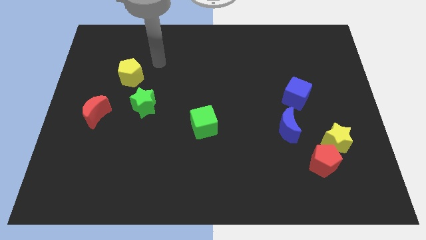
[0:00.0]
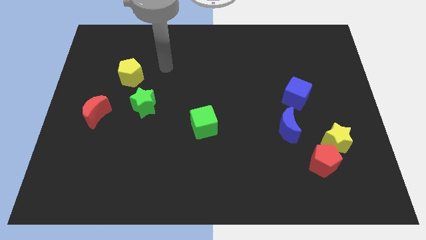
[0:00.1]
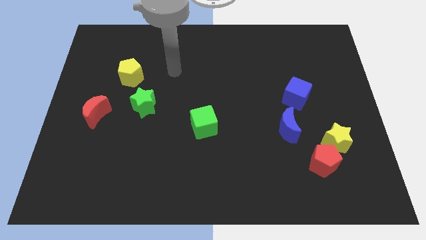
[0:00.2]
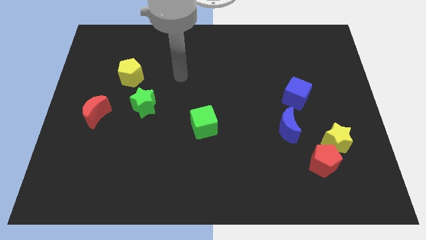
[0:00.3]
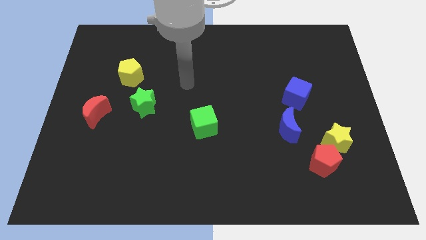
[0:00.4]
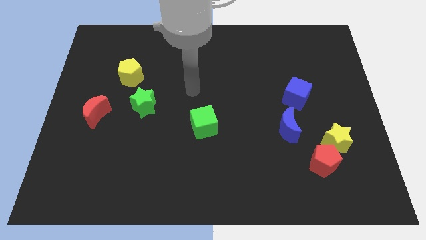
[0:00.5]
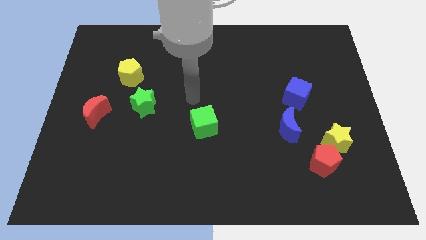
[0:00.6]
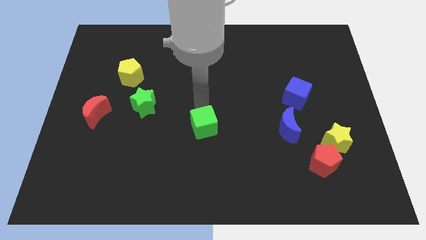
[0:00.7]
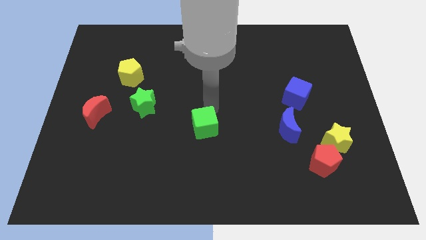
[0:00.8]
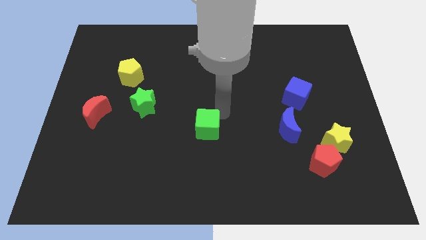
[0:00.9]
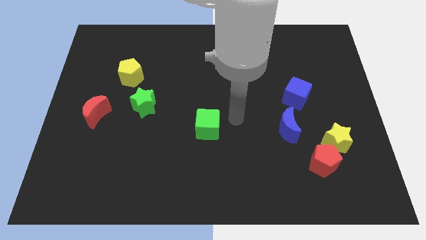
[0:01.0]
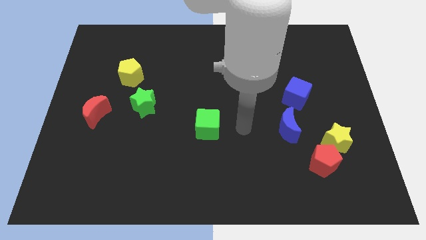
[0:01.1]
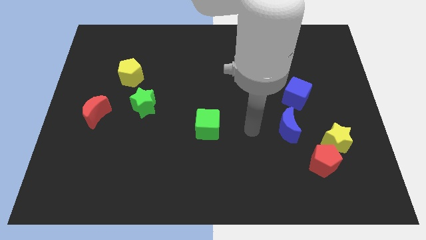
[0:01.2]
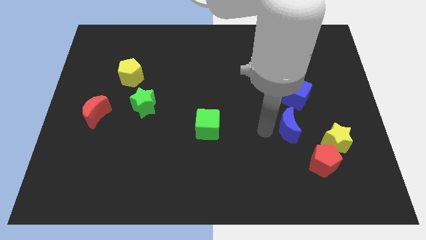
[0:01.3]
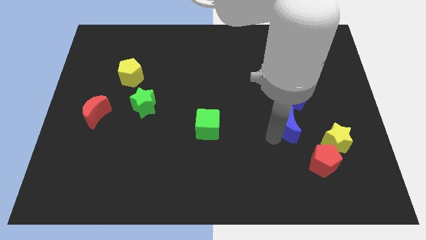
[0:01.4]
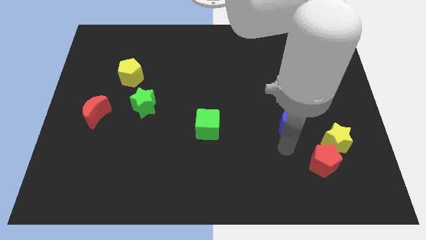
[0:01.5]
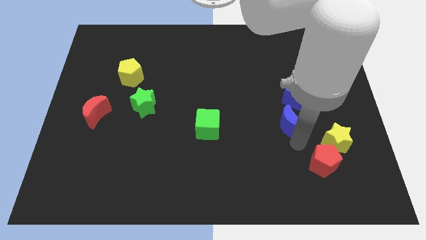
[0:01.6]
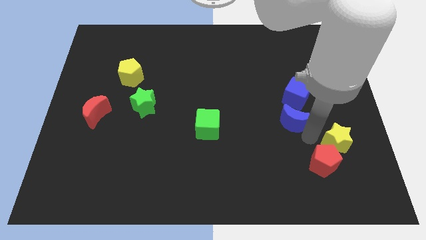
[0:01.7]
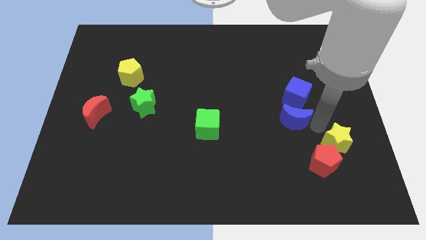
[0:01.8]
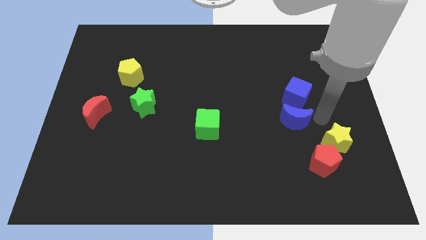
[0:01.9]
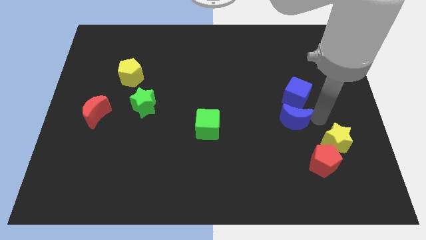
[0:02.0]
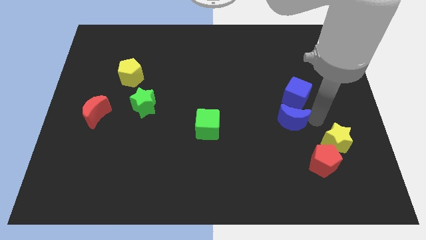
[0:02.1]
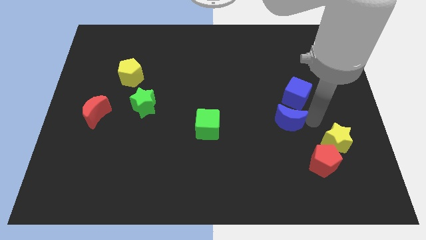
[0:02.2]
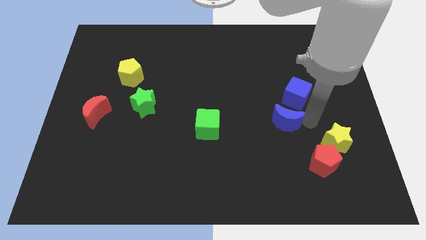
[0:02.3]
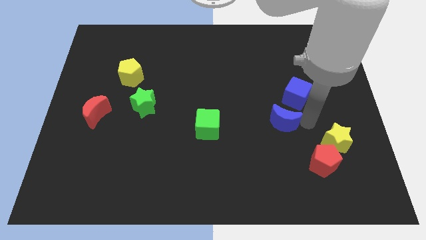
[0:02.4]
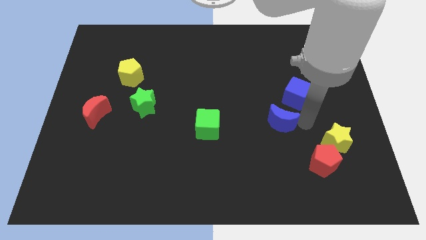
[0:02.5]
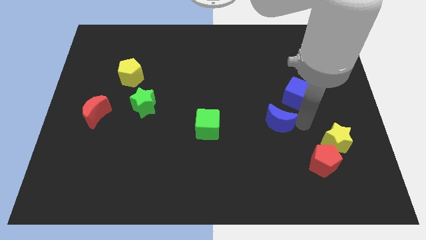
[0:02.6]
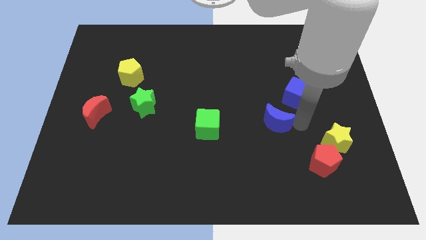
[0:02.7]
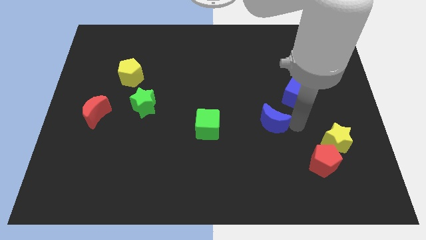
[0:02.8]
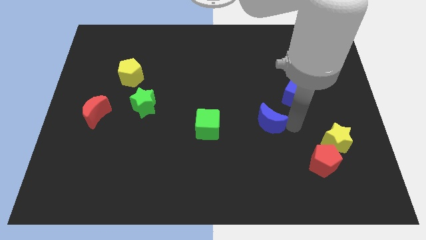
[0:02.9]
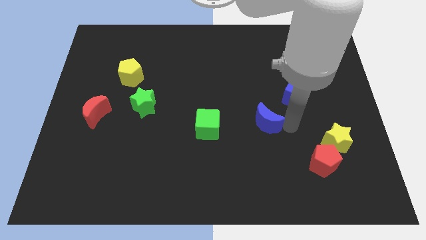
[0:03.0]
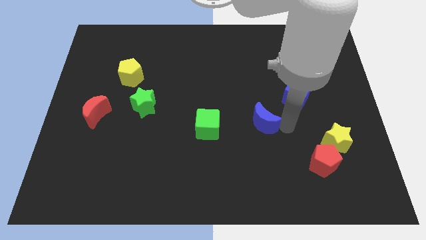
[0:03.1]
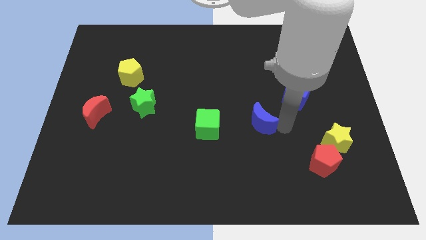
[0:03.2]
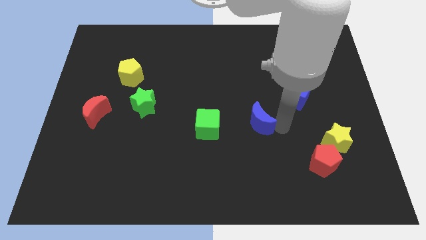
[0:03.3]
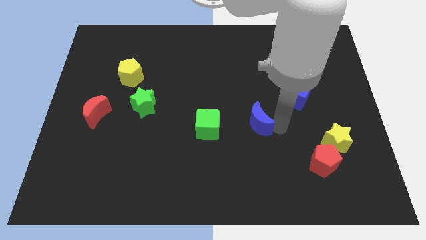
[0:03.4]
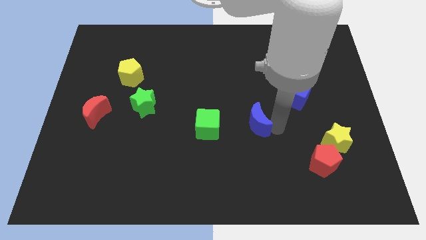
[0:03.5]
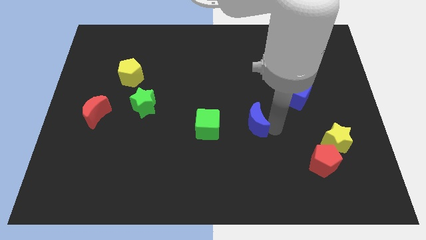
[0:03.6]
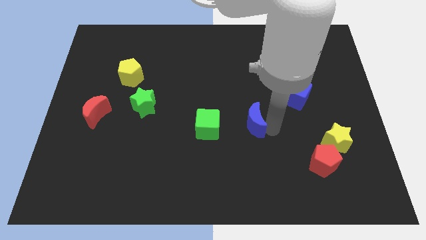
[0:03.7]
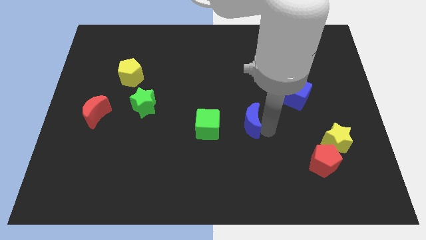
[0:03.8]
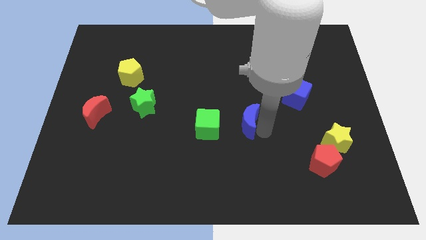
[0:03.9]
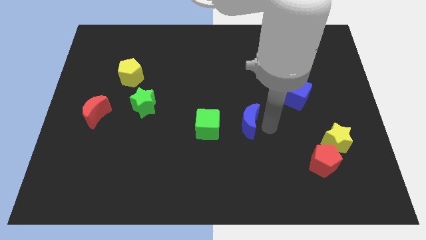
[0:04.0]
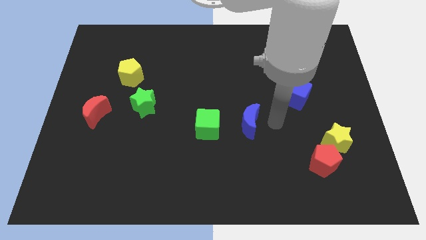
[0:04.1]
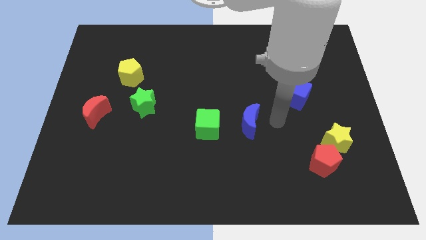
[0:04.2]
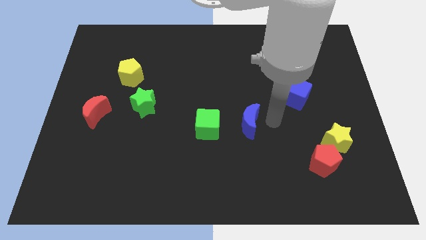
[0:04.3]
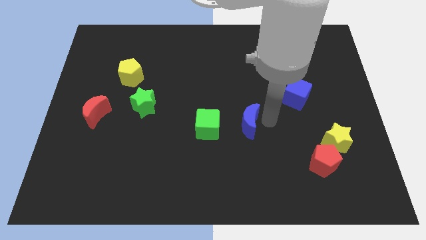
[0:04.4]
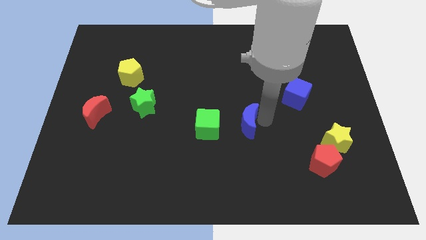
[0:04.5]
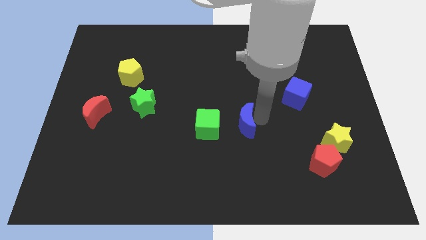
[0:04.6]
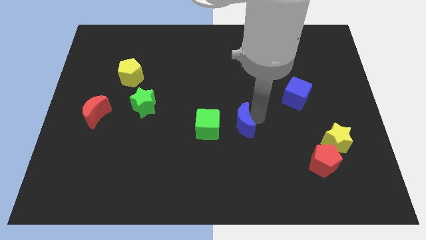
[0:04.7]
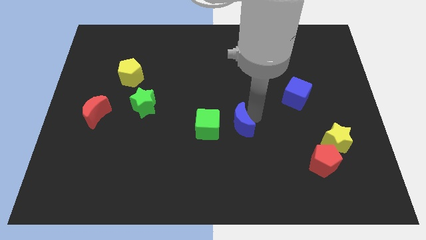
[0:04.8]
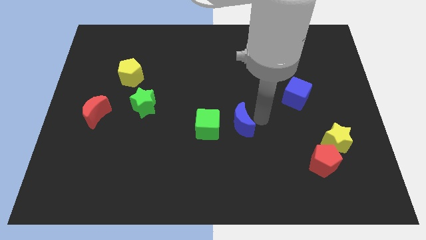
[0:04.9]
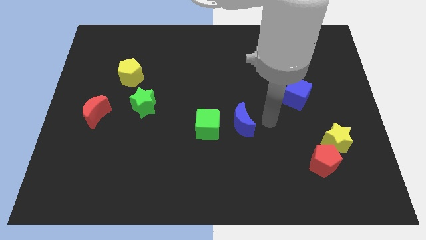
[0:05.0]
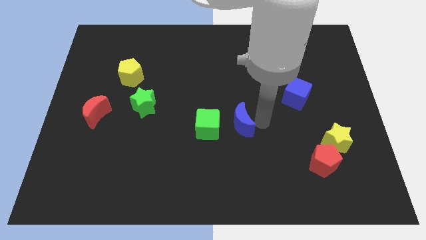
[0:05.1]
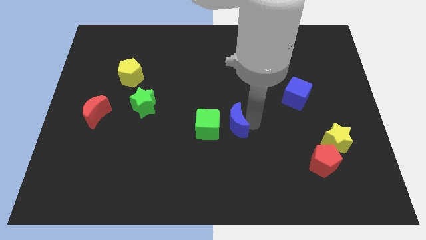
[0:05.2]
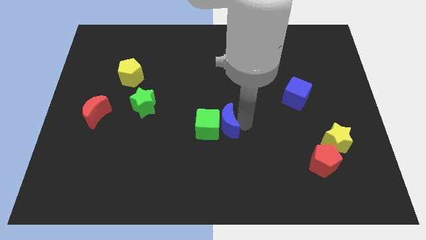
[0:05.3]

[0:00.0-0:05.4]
push the blue moon close to the green cube

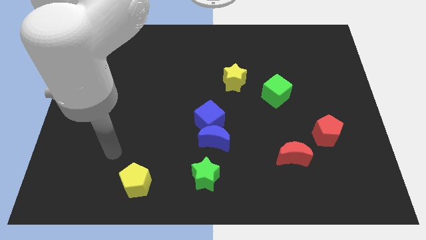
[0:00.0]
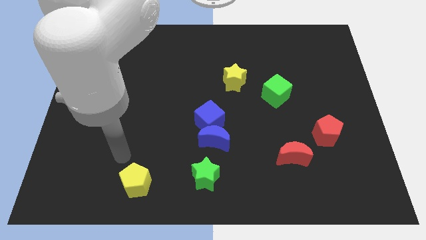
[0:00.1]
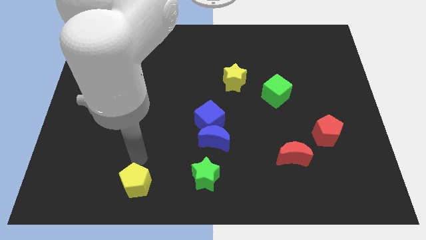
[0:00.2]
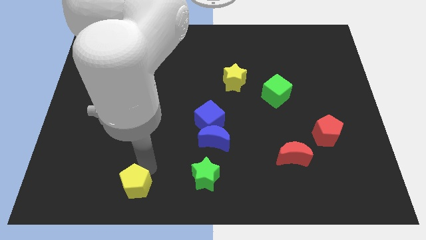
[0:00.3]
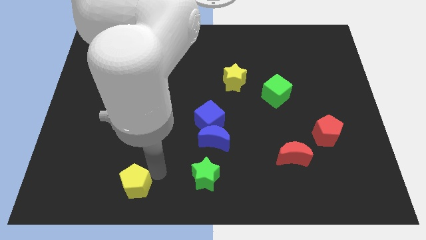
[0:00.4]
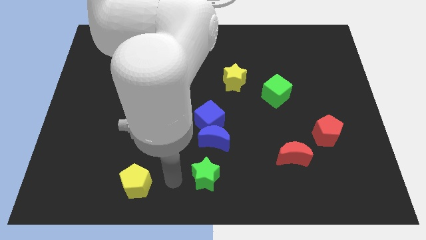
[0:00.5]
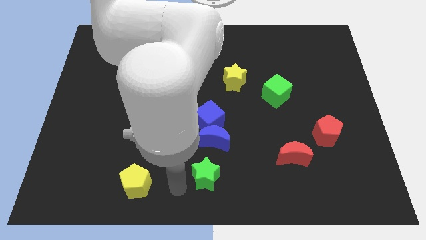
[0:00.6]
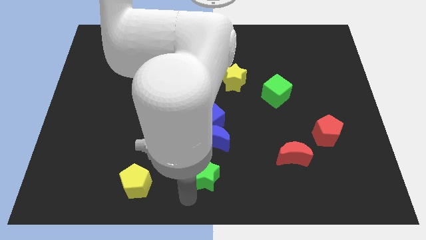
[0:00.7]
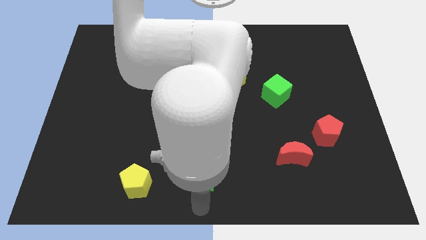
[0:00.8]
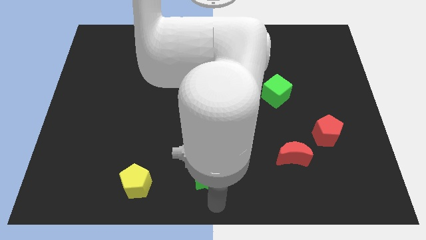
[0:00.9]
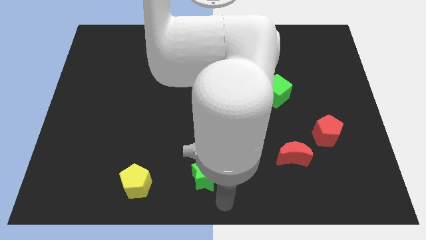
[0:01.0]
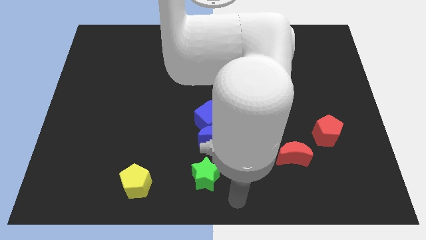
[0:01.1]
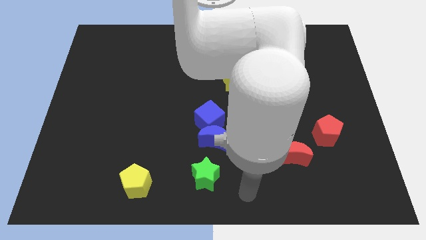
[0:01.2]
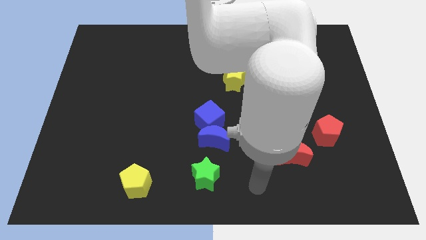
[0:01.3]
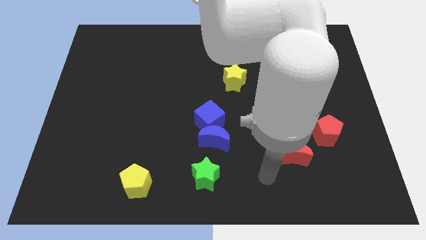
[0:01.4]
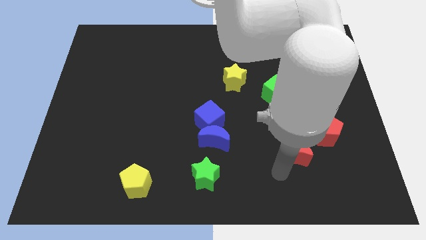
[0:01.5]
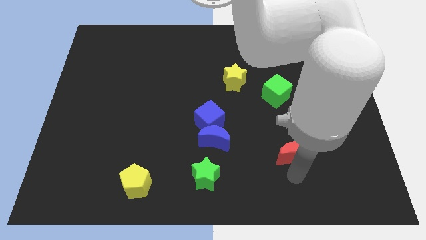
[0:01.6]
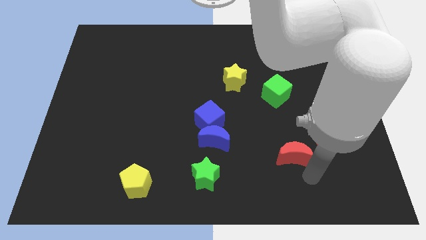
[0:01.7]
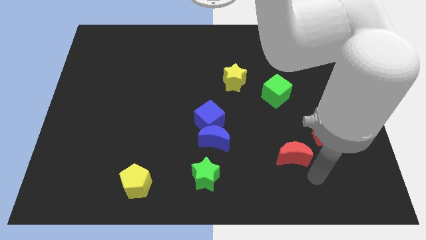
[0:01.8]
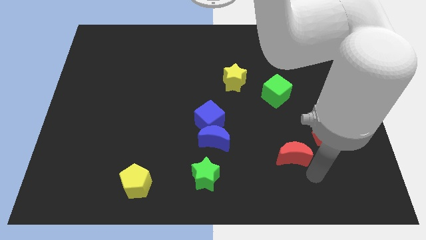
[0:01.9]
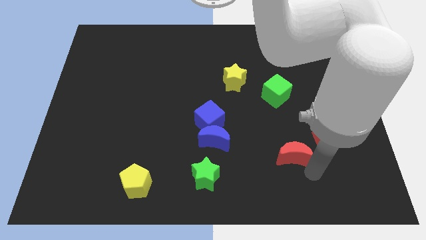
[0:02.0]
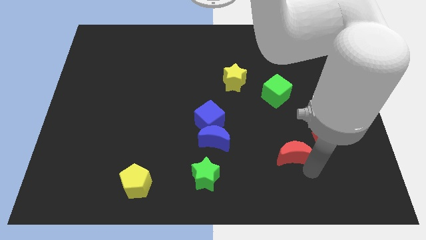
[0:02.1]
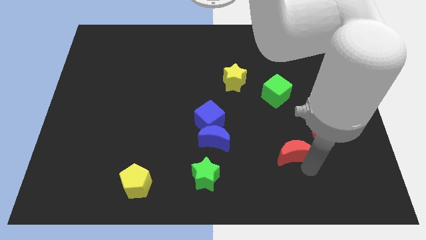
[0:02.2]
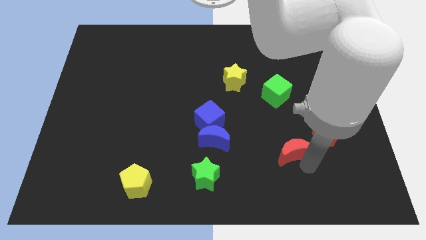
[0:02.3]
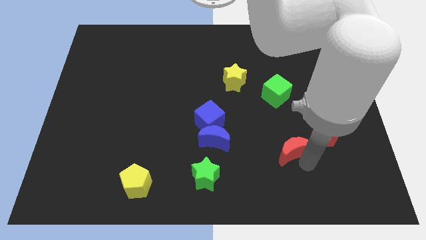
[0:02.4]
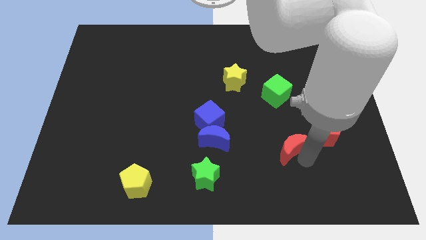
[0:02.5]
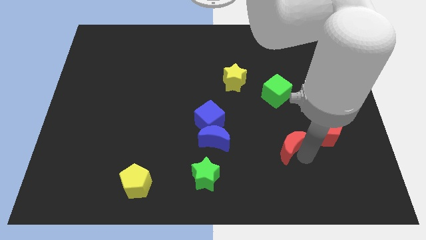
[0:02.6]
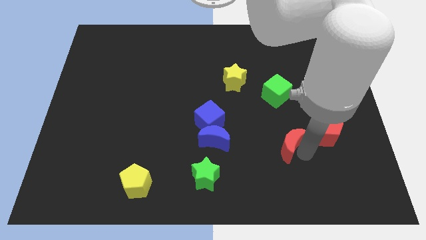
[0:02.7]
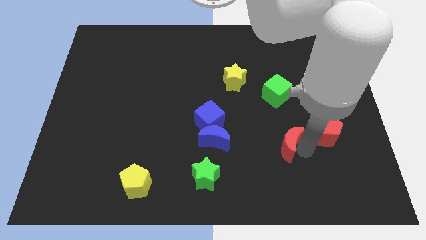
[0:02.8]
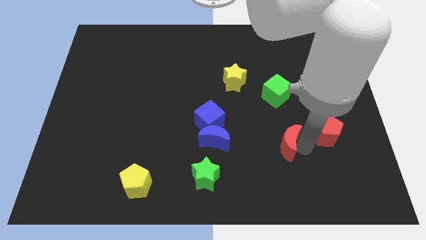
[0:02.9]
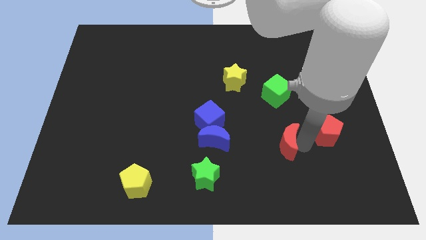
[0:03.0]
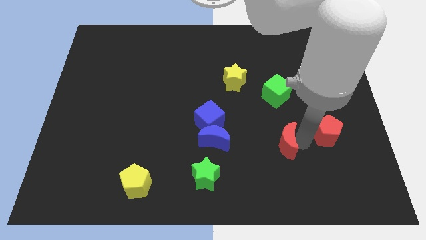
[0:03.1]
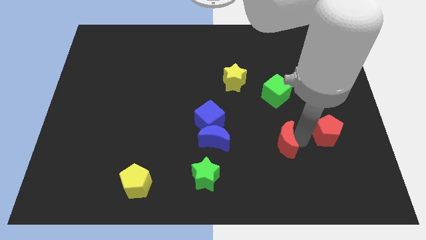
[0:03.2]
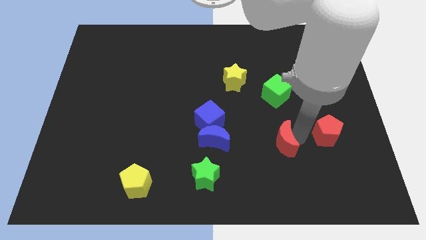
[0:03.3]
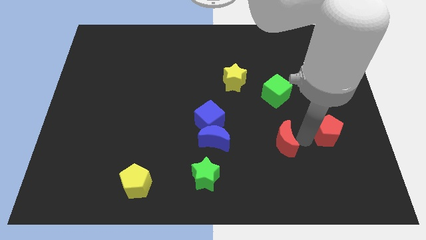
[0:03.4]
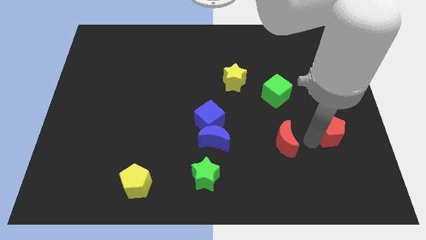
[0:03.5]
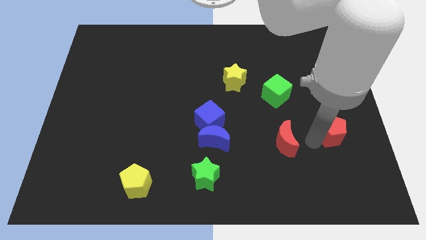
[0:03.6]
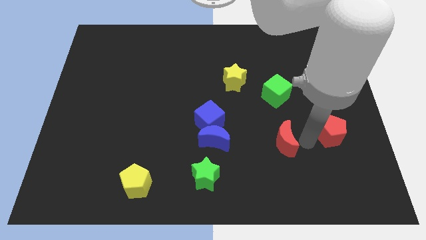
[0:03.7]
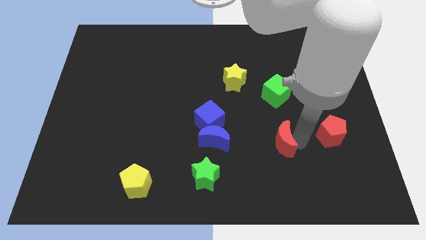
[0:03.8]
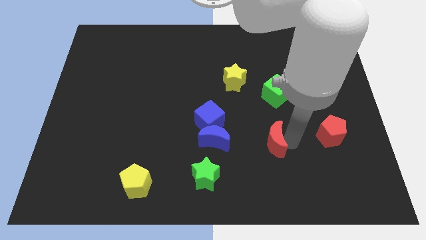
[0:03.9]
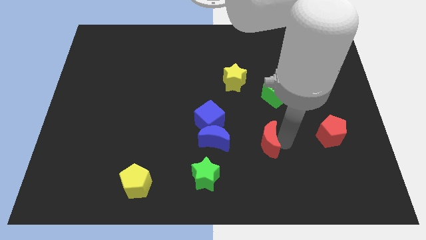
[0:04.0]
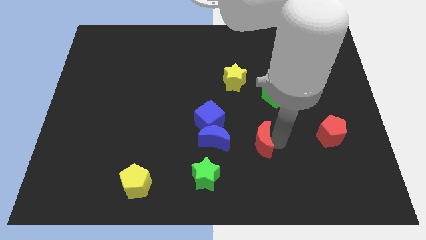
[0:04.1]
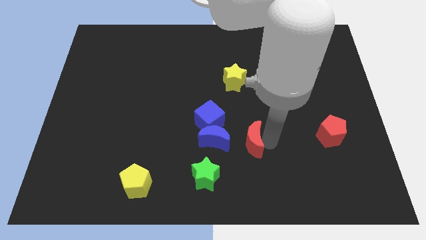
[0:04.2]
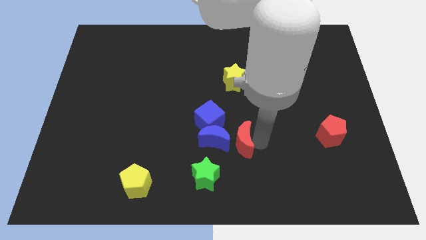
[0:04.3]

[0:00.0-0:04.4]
move the red moon next to the blue moon
